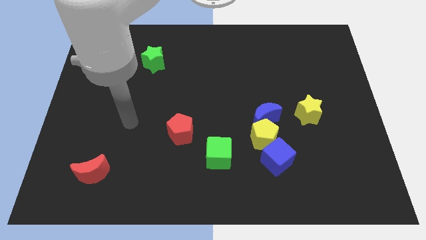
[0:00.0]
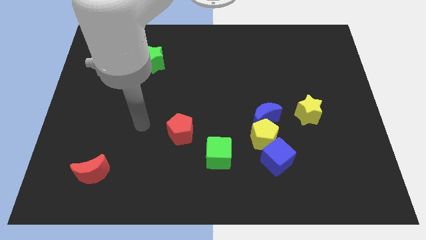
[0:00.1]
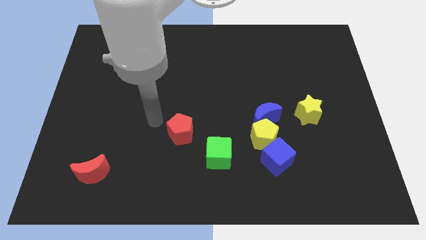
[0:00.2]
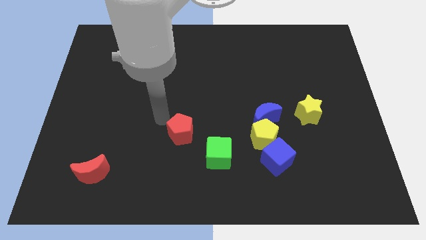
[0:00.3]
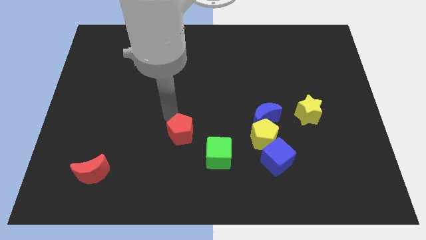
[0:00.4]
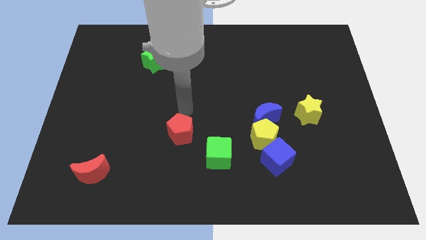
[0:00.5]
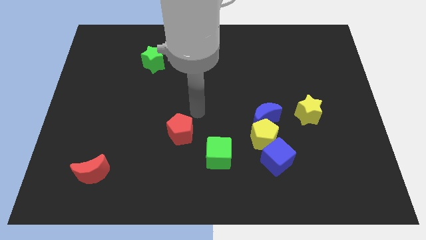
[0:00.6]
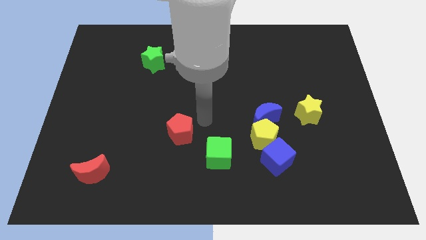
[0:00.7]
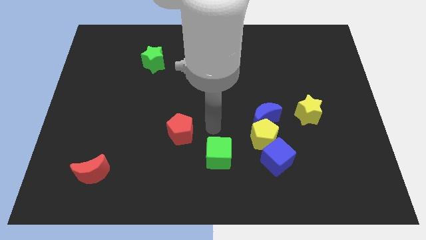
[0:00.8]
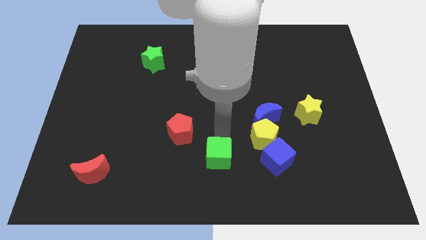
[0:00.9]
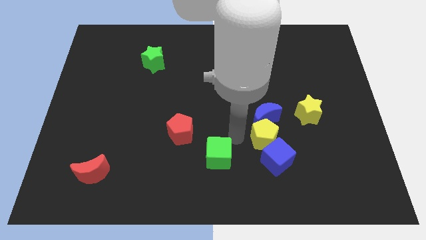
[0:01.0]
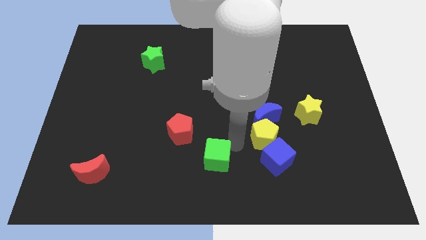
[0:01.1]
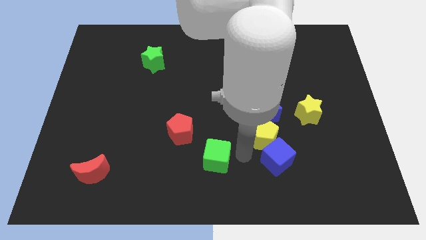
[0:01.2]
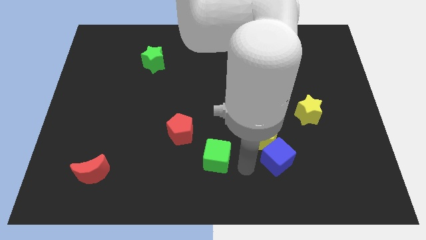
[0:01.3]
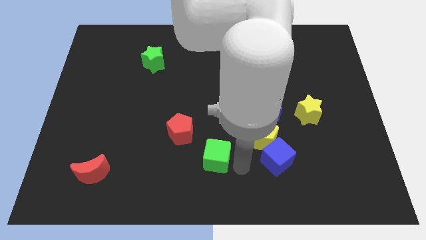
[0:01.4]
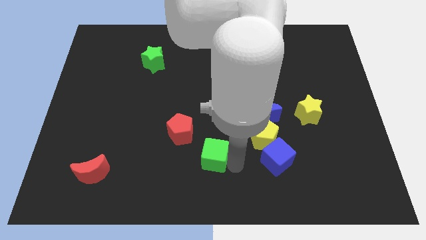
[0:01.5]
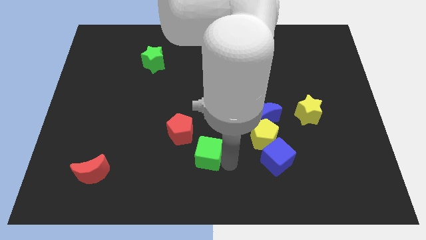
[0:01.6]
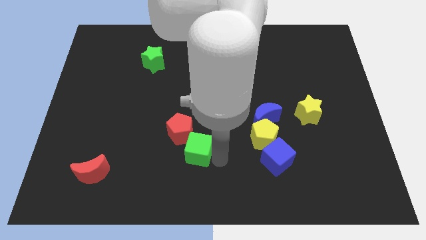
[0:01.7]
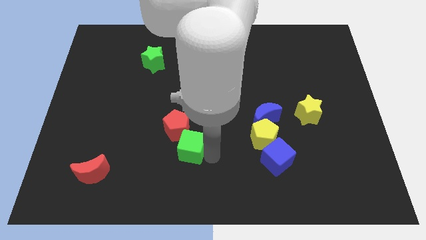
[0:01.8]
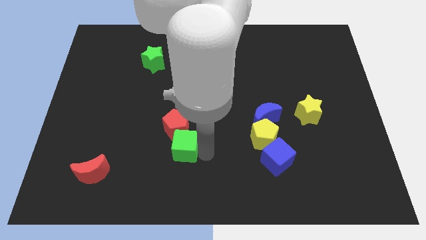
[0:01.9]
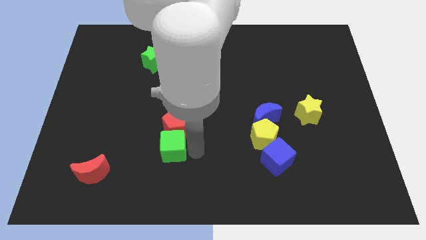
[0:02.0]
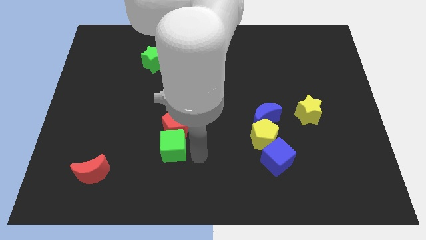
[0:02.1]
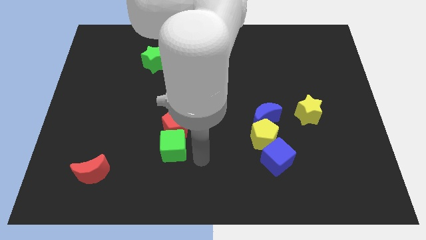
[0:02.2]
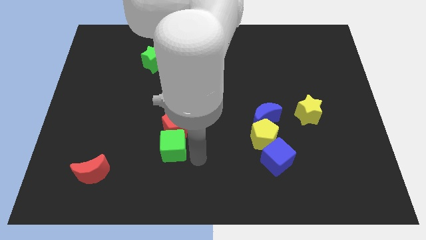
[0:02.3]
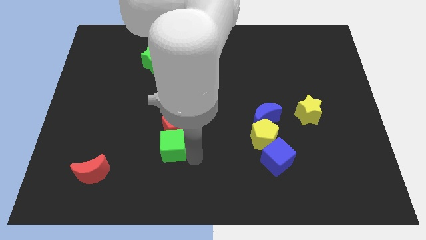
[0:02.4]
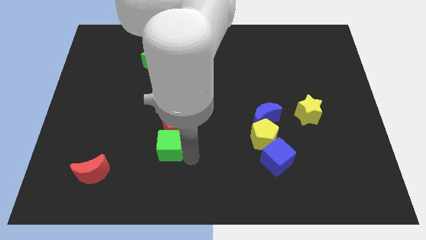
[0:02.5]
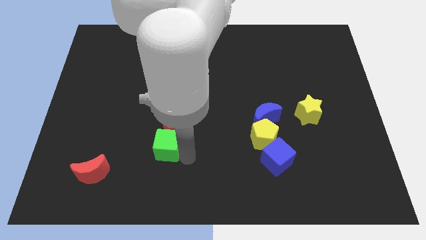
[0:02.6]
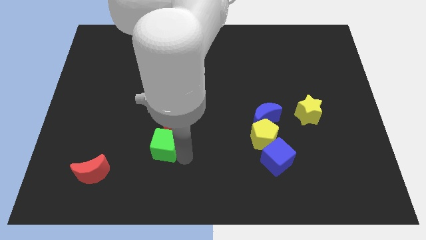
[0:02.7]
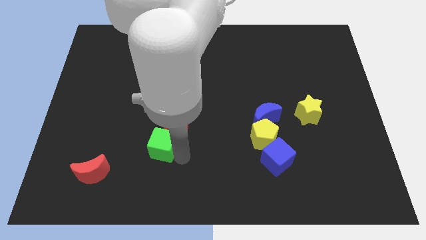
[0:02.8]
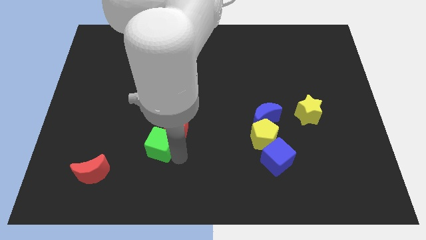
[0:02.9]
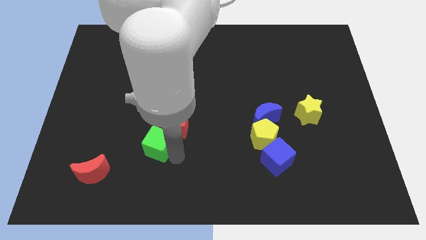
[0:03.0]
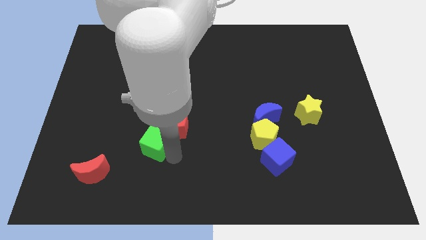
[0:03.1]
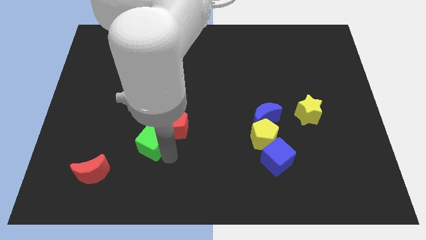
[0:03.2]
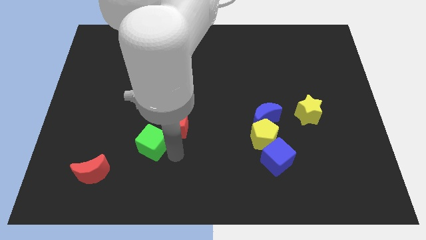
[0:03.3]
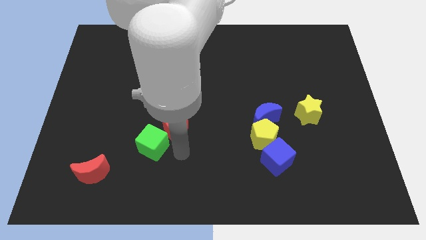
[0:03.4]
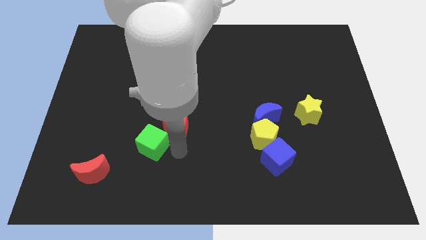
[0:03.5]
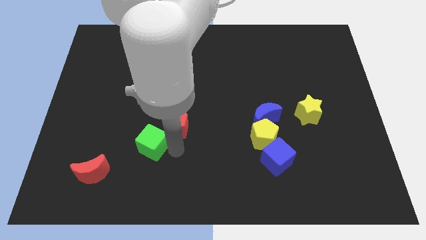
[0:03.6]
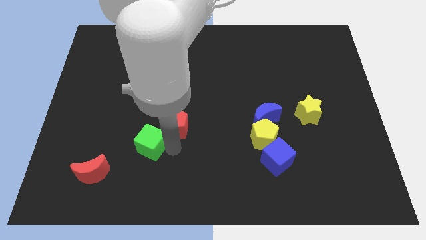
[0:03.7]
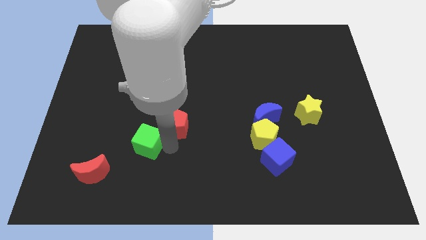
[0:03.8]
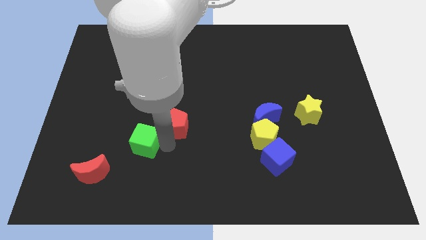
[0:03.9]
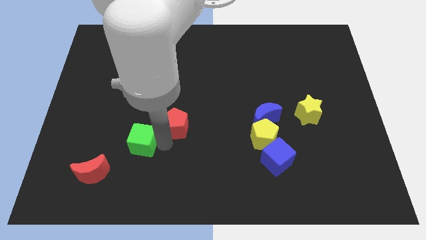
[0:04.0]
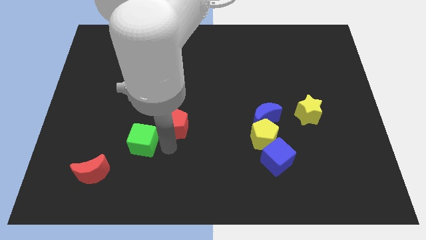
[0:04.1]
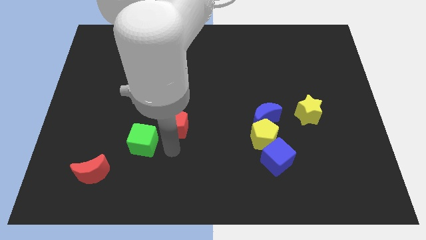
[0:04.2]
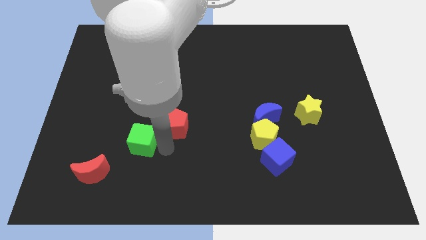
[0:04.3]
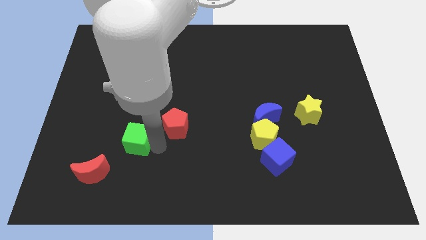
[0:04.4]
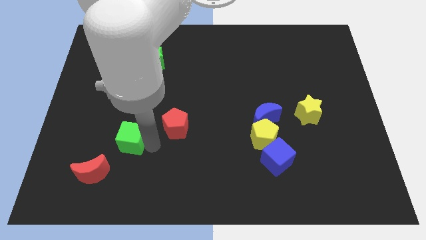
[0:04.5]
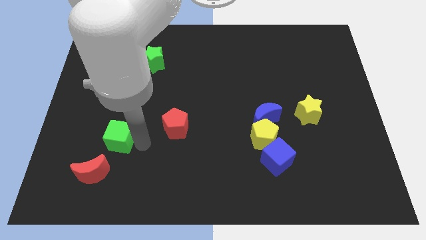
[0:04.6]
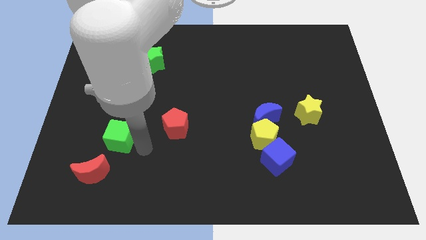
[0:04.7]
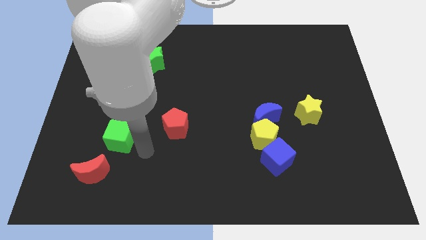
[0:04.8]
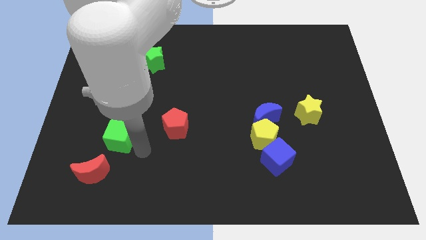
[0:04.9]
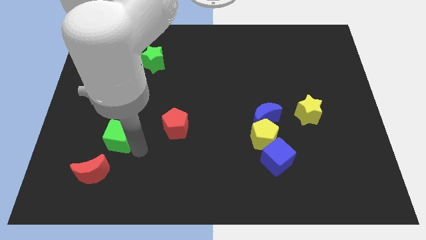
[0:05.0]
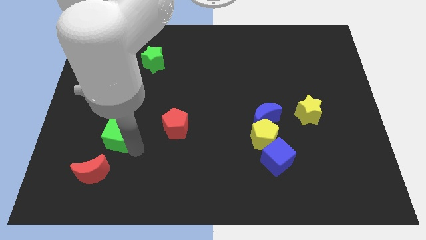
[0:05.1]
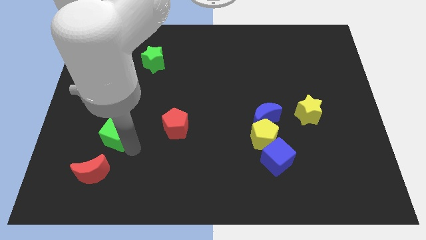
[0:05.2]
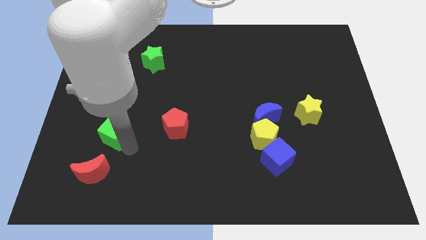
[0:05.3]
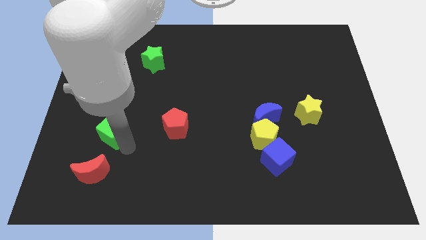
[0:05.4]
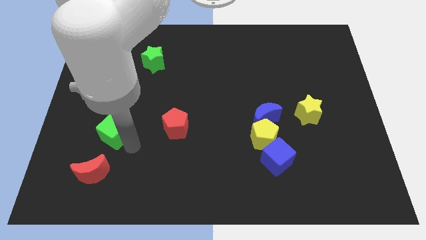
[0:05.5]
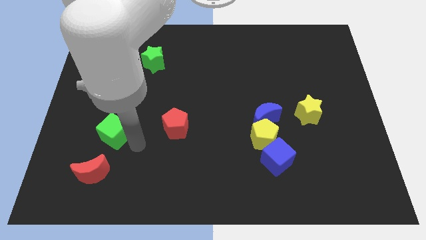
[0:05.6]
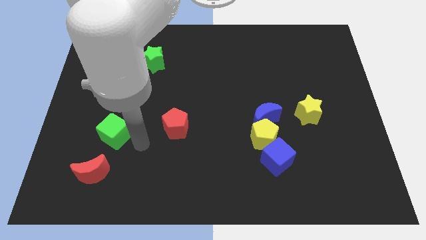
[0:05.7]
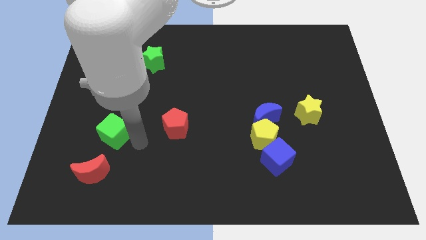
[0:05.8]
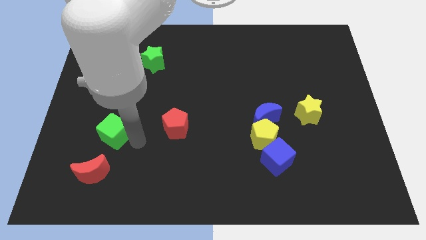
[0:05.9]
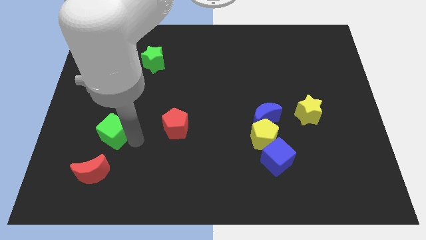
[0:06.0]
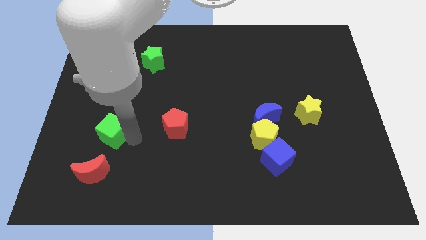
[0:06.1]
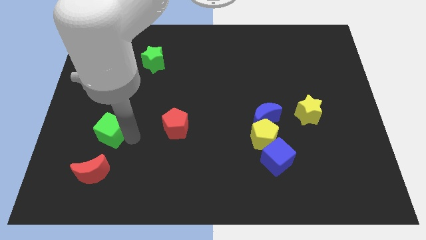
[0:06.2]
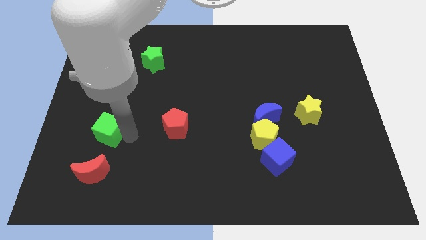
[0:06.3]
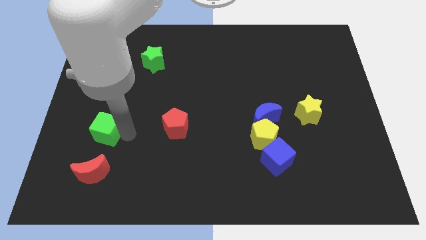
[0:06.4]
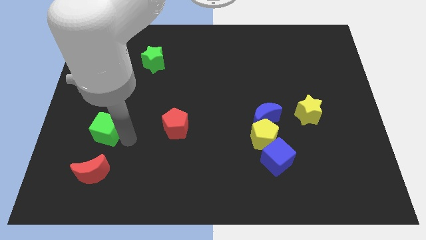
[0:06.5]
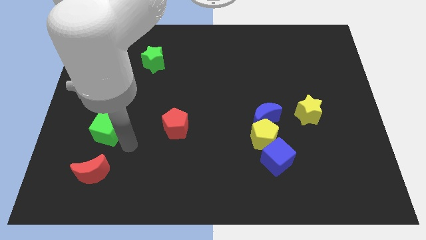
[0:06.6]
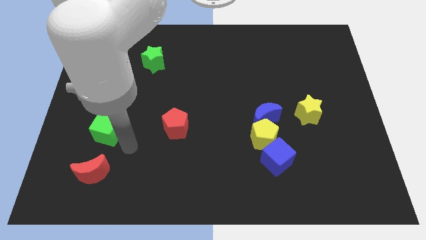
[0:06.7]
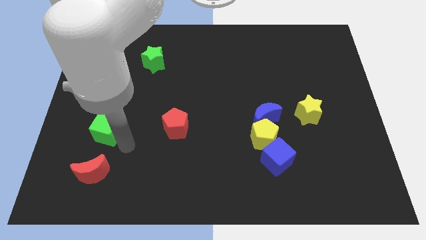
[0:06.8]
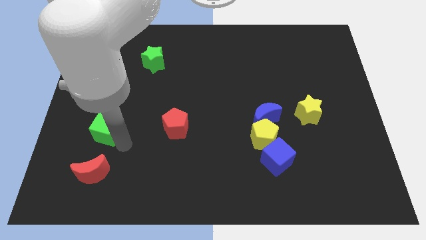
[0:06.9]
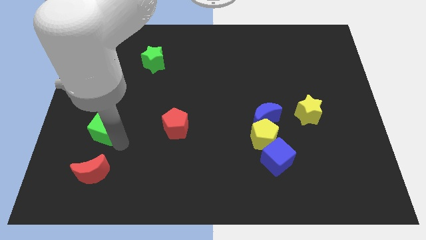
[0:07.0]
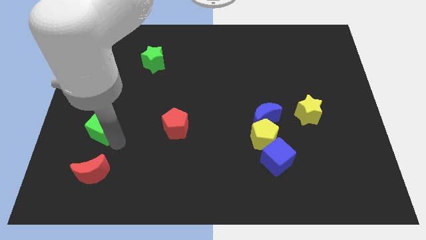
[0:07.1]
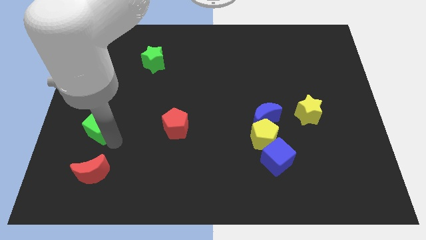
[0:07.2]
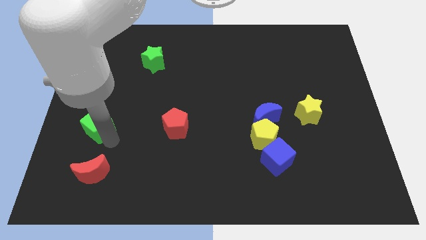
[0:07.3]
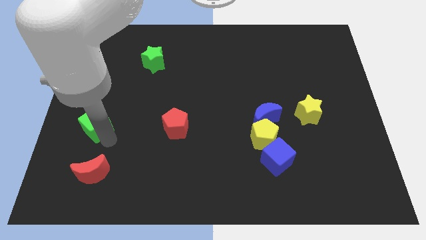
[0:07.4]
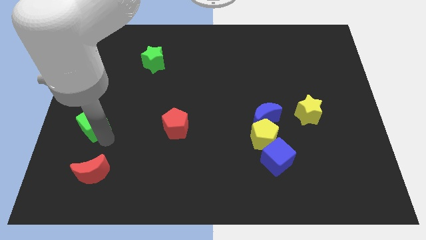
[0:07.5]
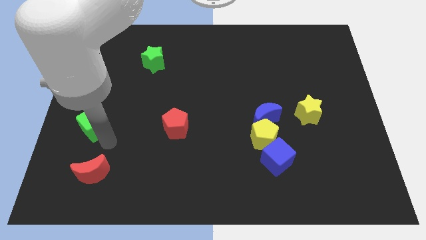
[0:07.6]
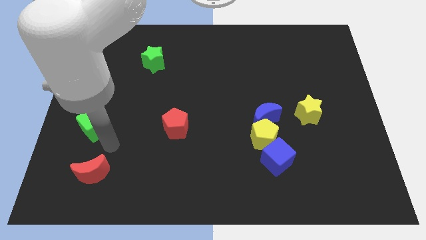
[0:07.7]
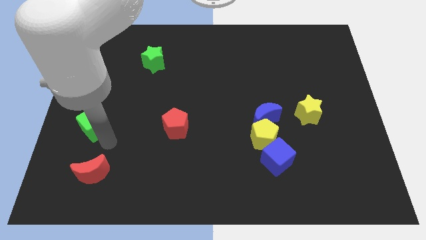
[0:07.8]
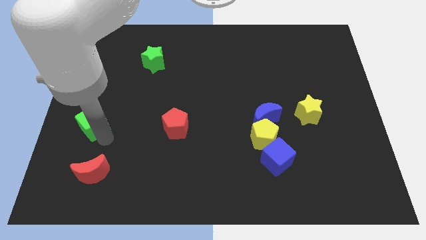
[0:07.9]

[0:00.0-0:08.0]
move the green cube to the center left
